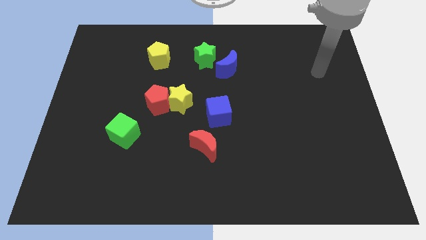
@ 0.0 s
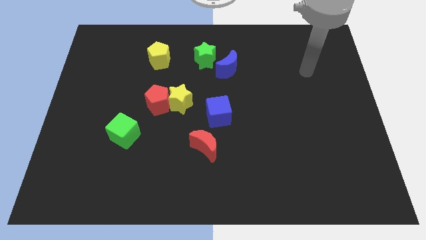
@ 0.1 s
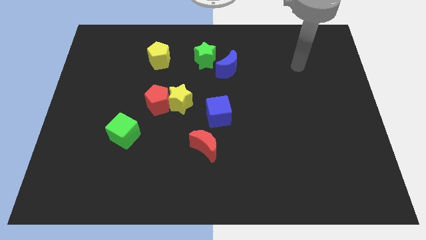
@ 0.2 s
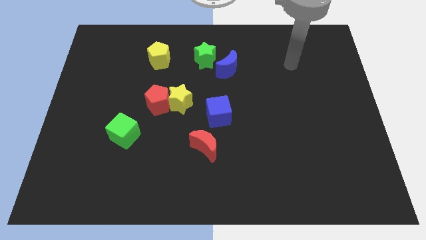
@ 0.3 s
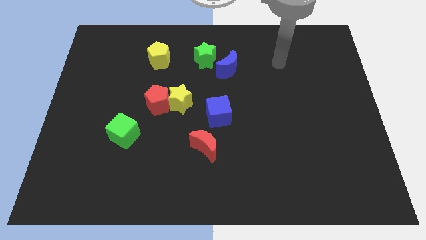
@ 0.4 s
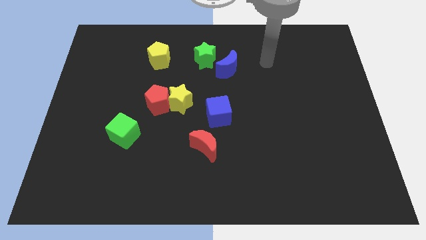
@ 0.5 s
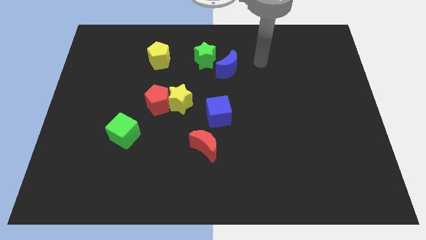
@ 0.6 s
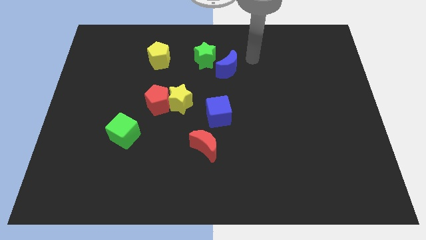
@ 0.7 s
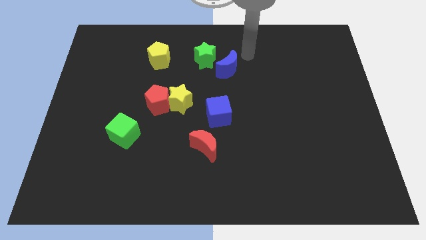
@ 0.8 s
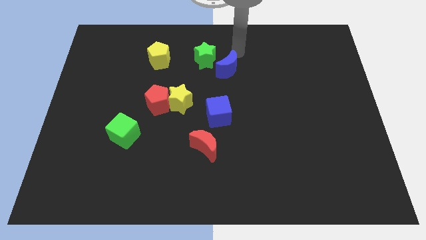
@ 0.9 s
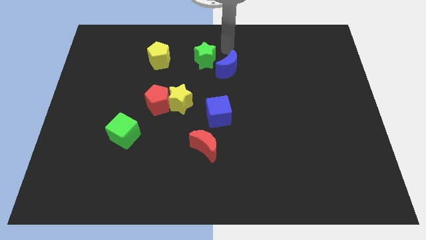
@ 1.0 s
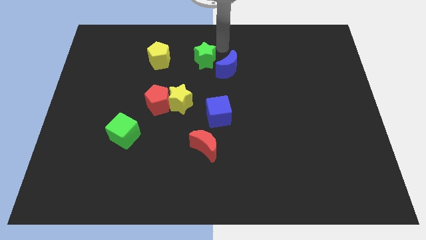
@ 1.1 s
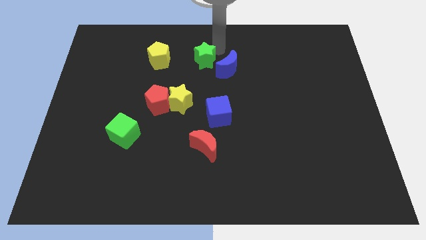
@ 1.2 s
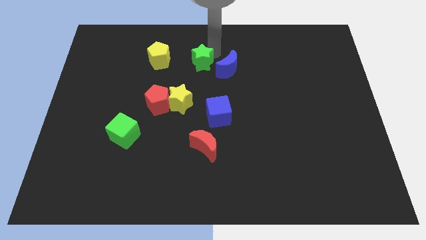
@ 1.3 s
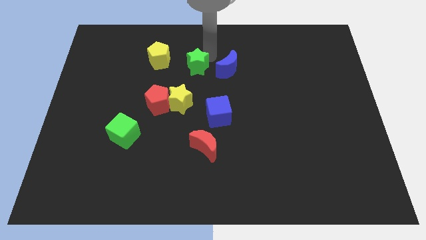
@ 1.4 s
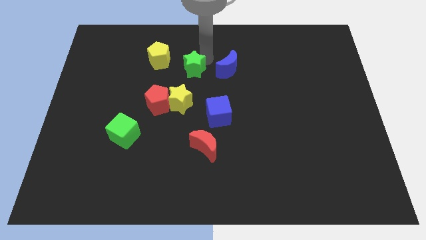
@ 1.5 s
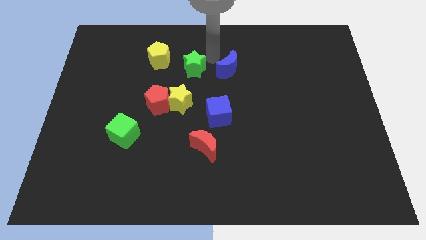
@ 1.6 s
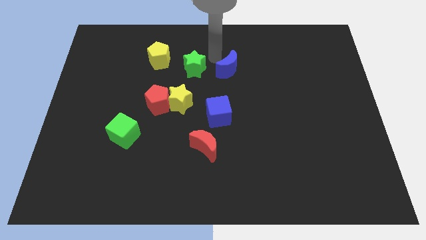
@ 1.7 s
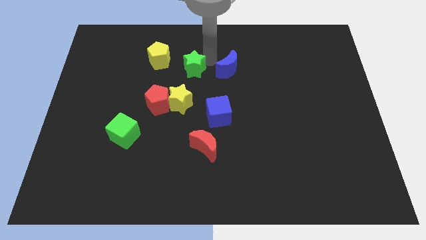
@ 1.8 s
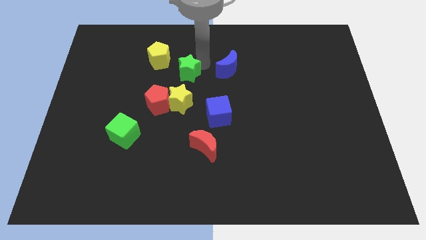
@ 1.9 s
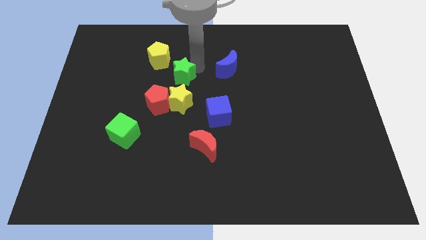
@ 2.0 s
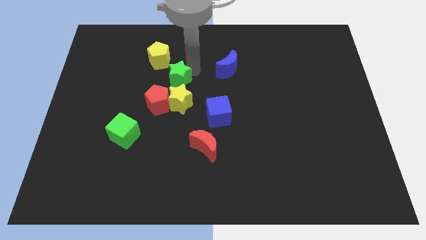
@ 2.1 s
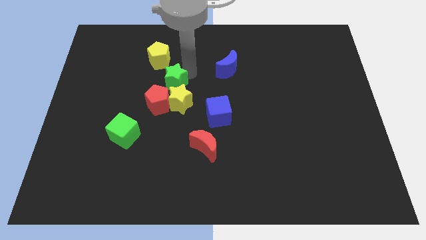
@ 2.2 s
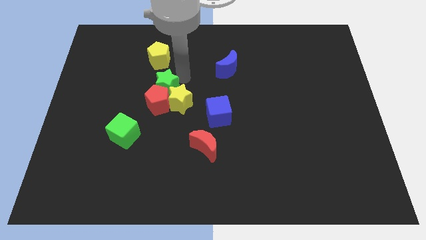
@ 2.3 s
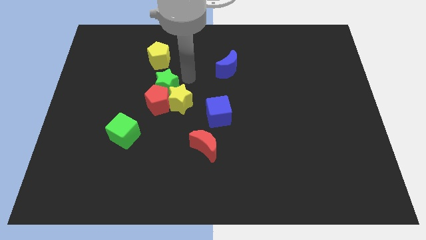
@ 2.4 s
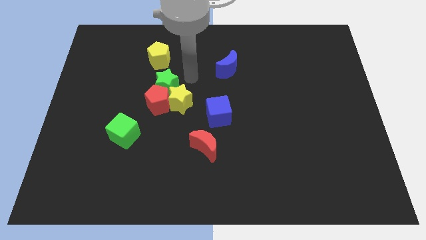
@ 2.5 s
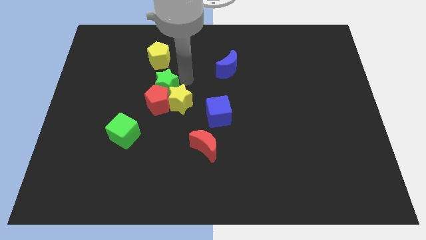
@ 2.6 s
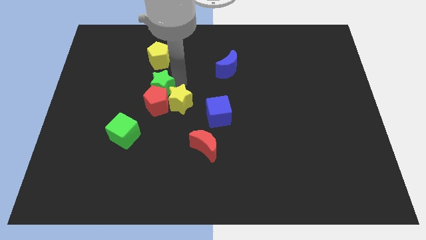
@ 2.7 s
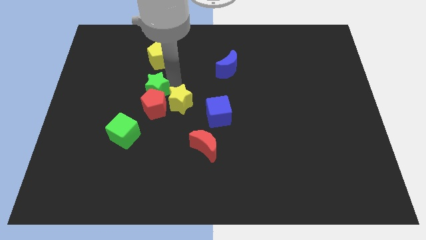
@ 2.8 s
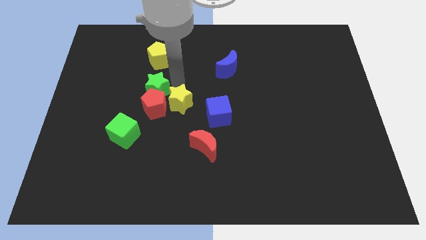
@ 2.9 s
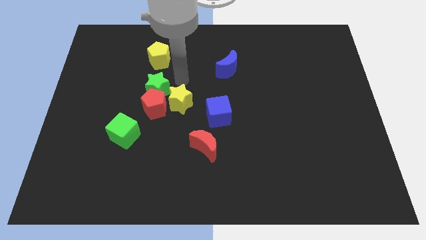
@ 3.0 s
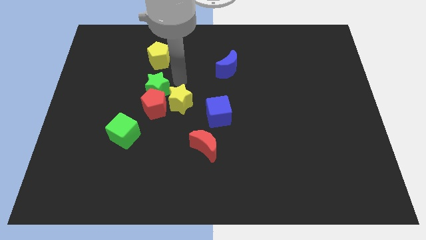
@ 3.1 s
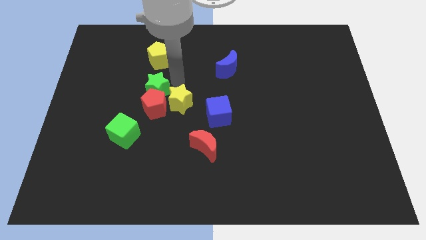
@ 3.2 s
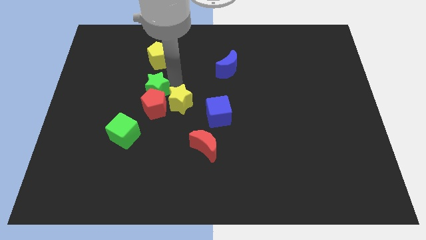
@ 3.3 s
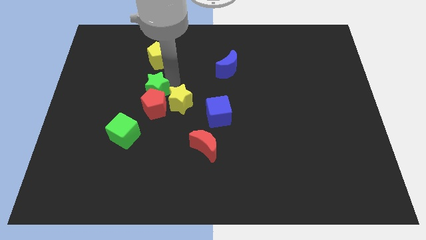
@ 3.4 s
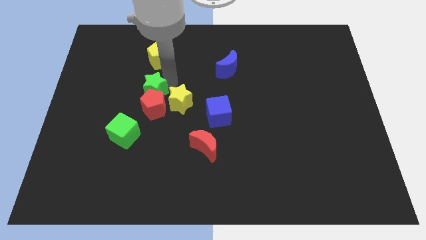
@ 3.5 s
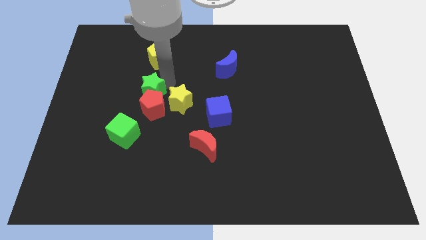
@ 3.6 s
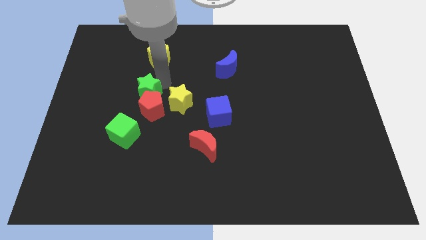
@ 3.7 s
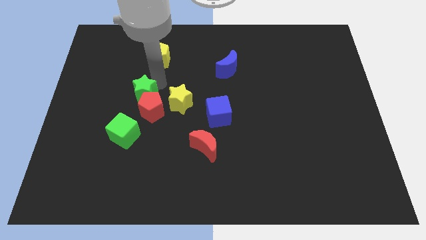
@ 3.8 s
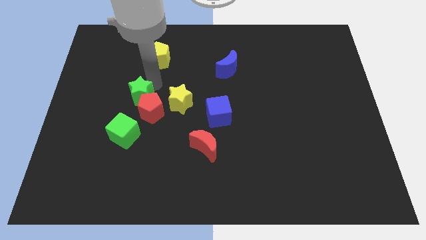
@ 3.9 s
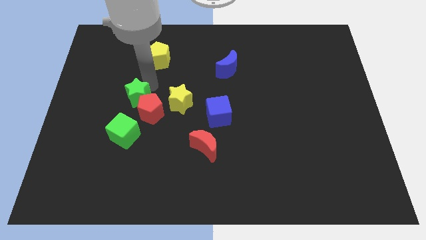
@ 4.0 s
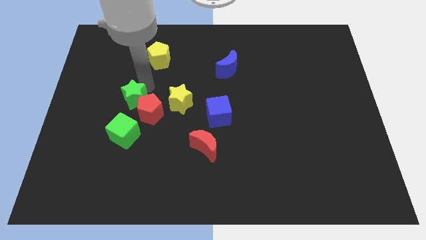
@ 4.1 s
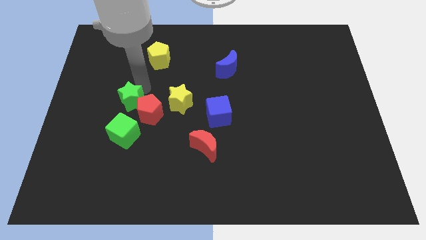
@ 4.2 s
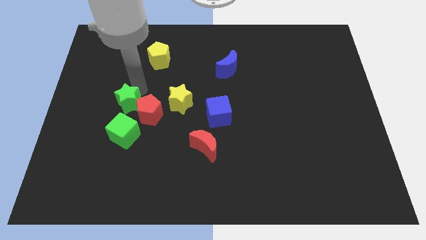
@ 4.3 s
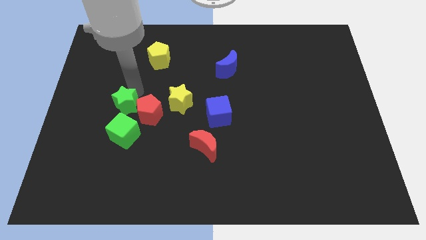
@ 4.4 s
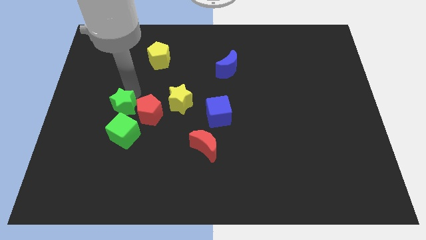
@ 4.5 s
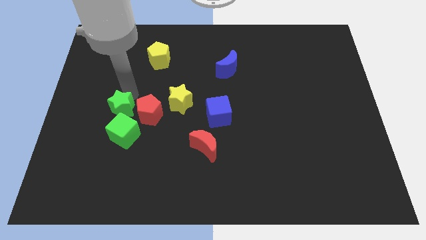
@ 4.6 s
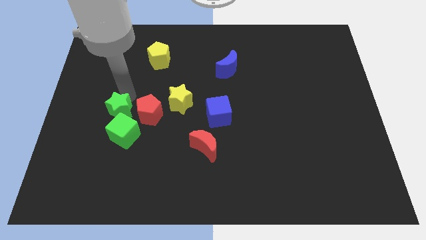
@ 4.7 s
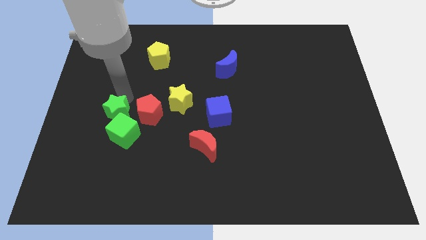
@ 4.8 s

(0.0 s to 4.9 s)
push the green star diagonally down and to the left of the red pentagon

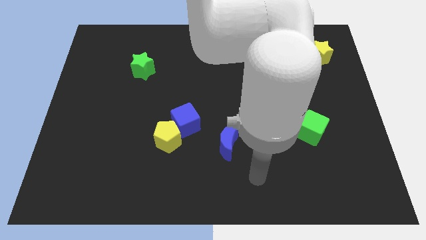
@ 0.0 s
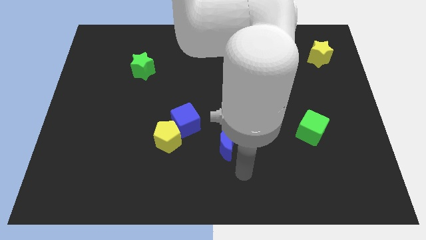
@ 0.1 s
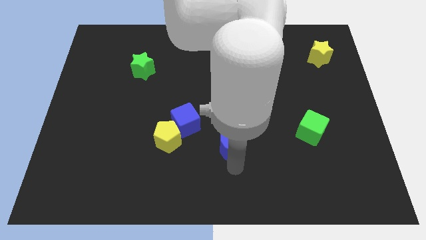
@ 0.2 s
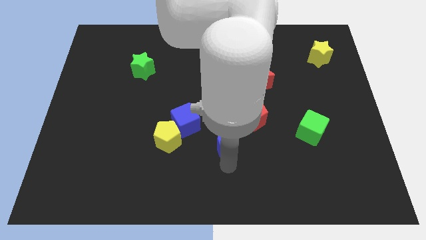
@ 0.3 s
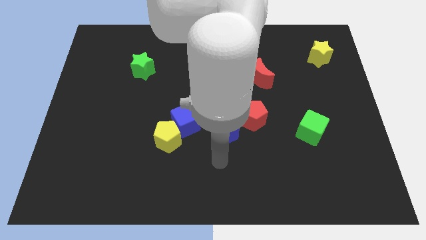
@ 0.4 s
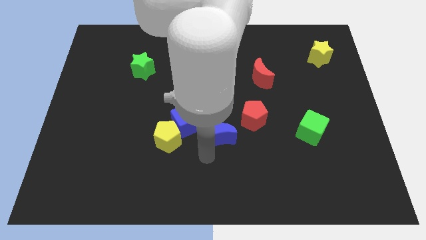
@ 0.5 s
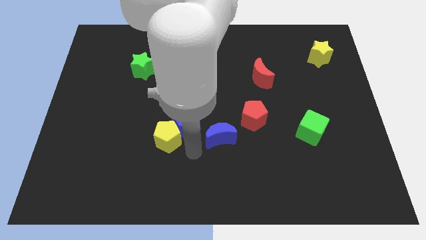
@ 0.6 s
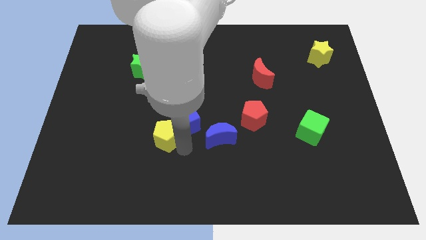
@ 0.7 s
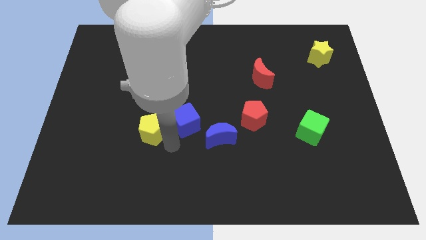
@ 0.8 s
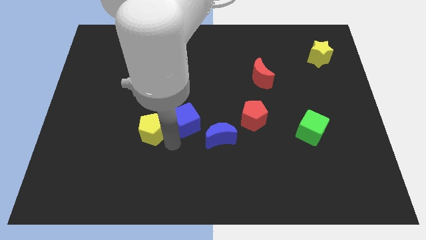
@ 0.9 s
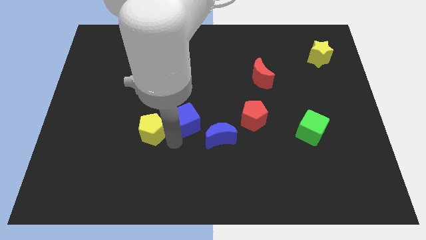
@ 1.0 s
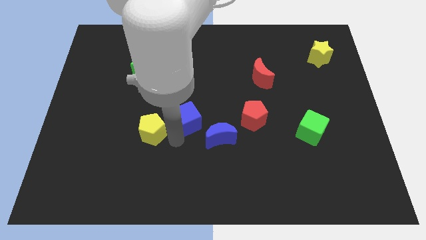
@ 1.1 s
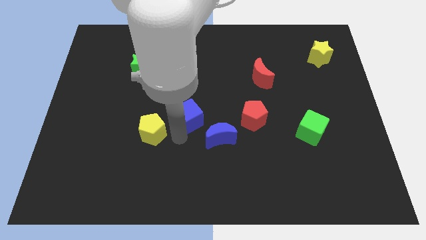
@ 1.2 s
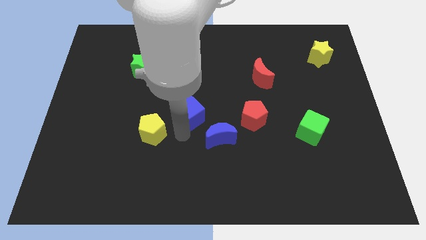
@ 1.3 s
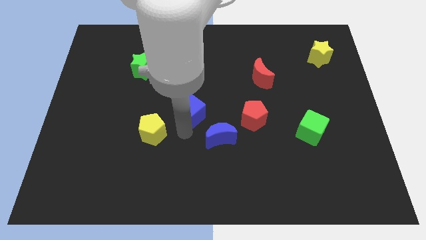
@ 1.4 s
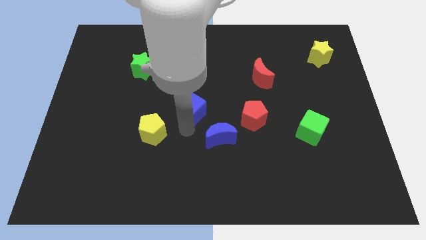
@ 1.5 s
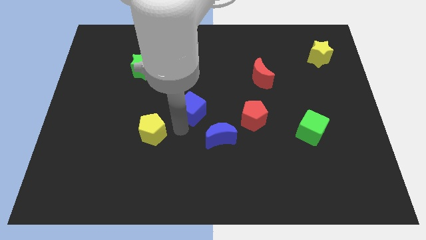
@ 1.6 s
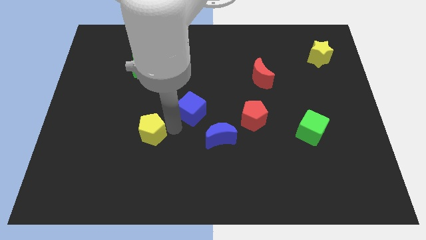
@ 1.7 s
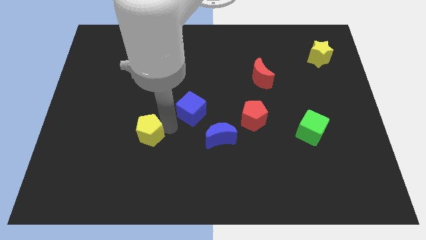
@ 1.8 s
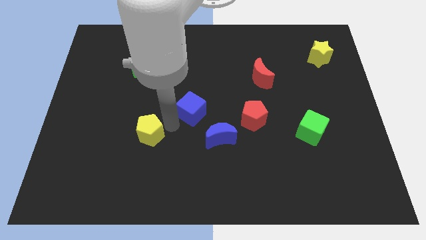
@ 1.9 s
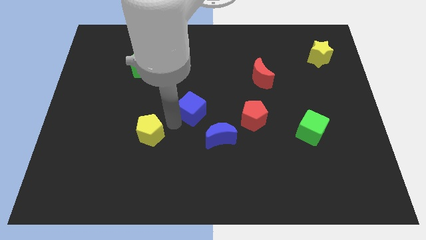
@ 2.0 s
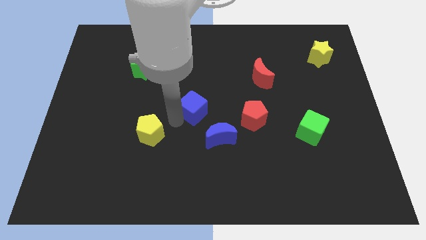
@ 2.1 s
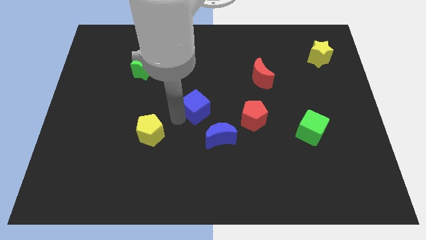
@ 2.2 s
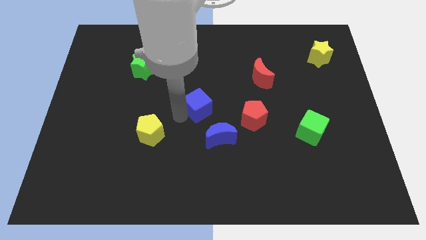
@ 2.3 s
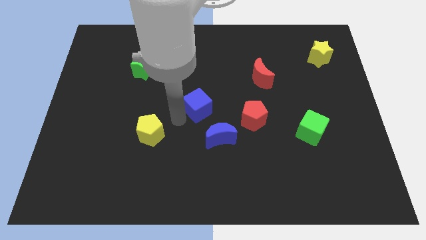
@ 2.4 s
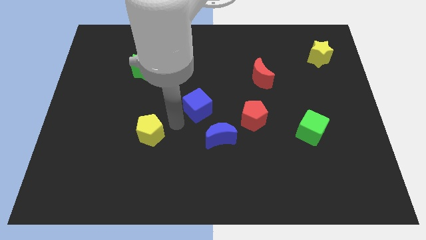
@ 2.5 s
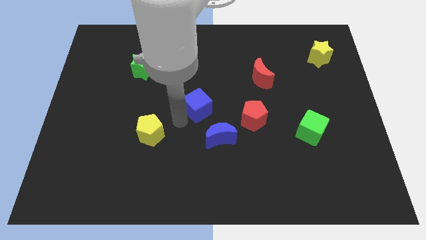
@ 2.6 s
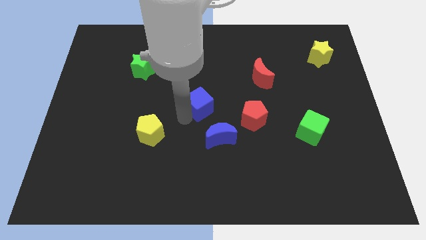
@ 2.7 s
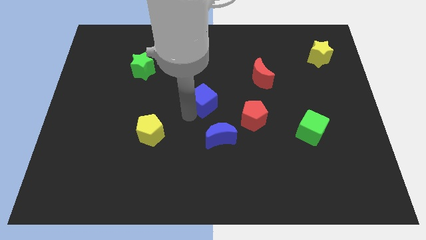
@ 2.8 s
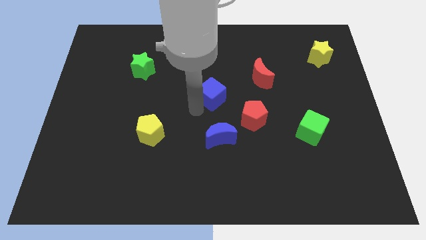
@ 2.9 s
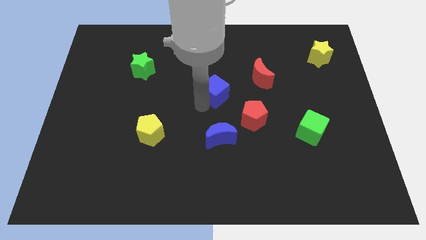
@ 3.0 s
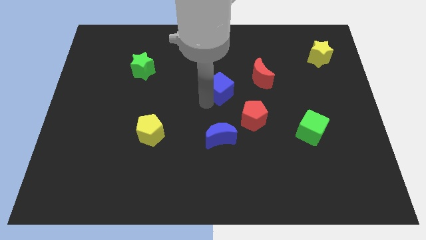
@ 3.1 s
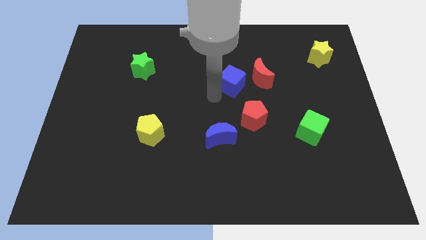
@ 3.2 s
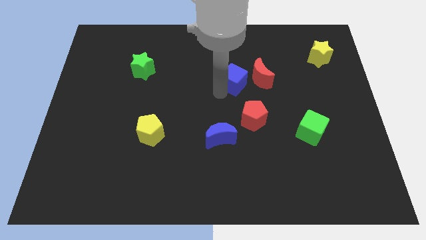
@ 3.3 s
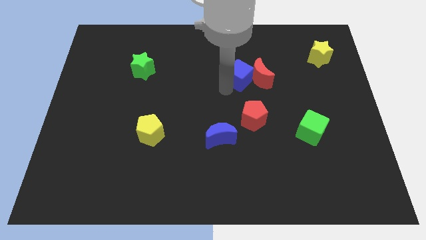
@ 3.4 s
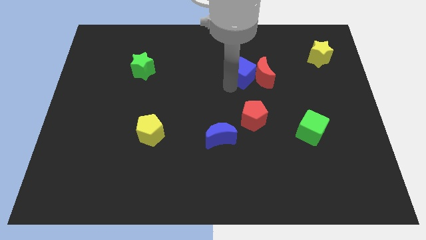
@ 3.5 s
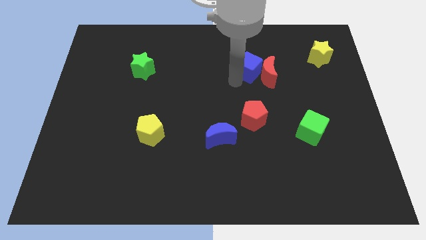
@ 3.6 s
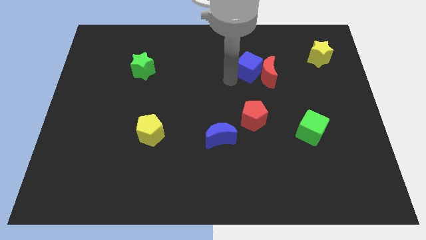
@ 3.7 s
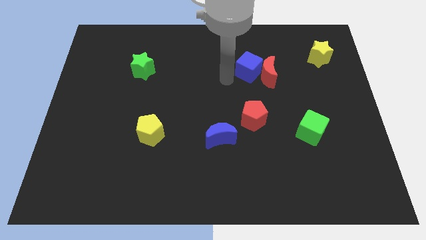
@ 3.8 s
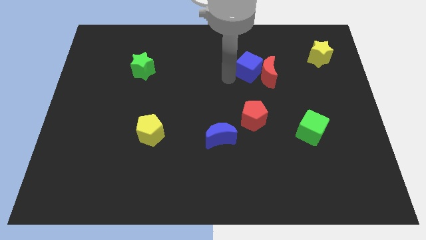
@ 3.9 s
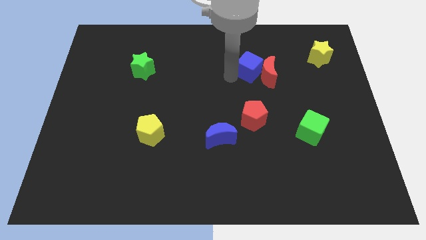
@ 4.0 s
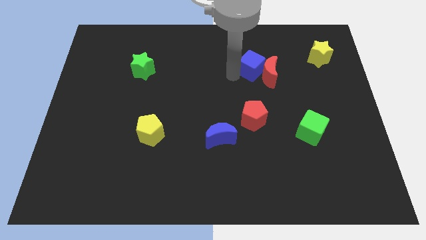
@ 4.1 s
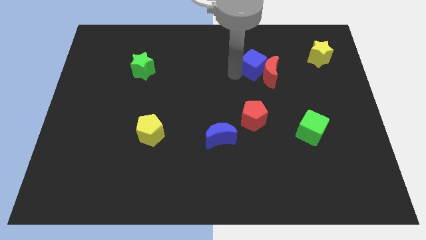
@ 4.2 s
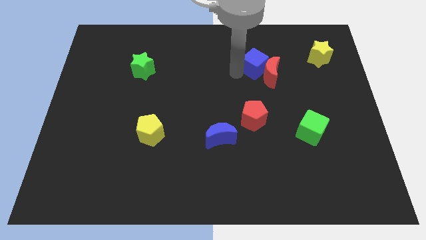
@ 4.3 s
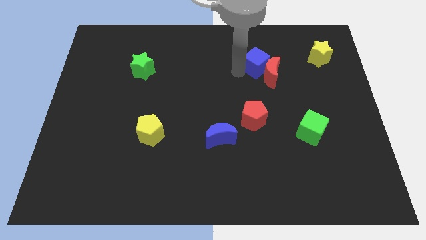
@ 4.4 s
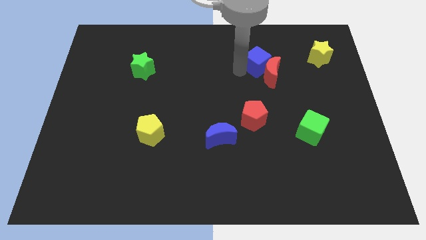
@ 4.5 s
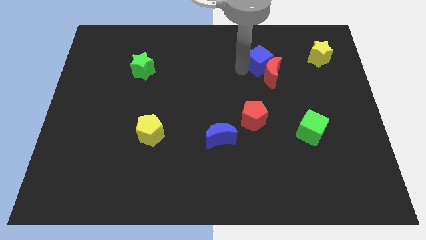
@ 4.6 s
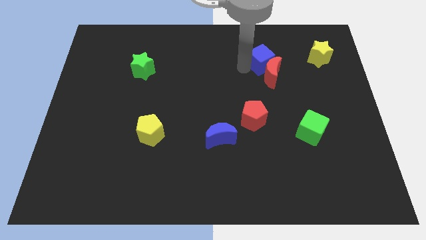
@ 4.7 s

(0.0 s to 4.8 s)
push the blue cube to the left side of the yellow star
